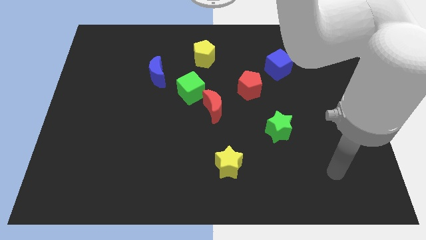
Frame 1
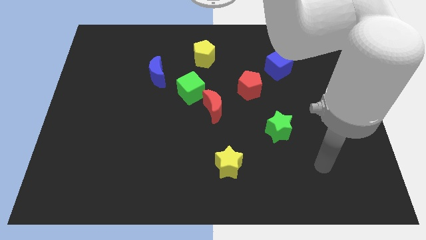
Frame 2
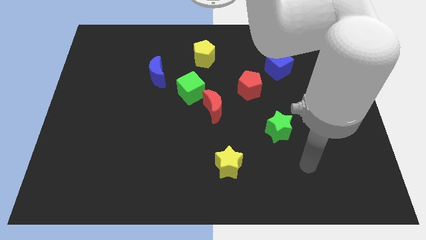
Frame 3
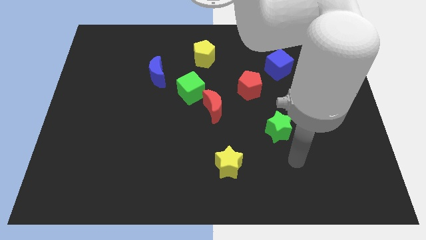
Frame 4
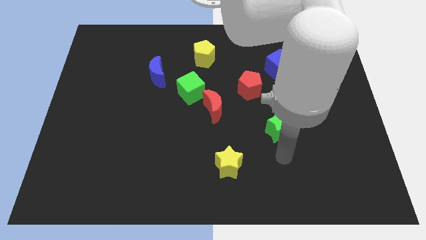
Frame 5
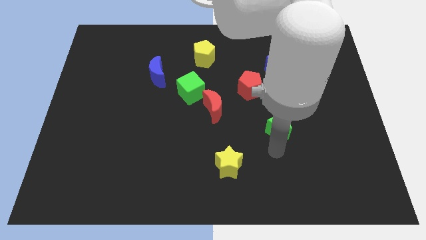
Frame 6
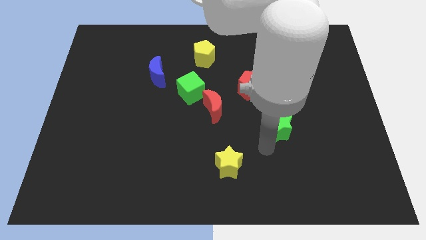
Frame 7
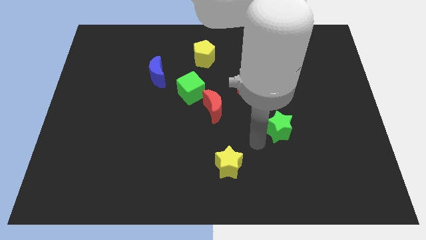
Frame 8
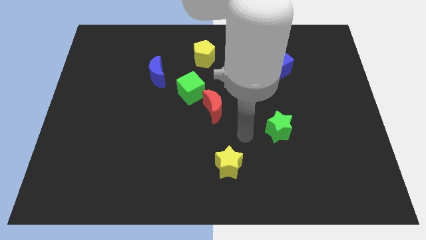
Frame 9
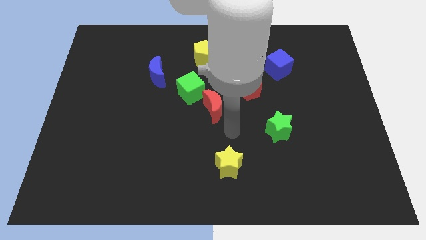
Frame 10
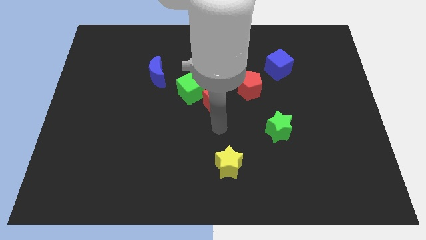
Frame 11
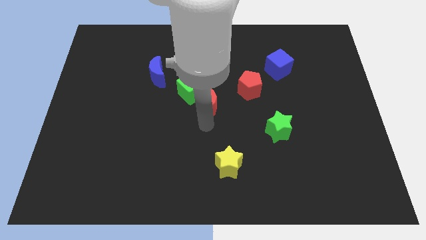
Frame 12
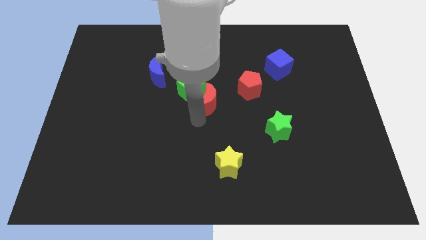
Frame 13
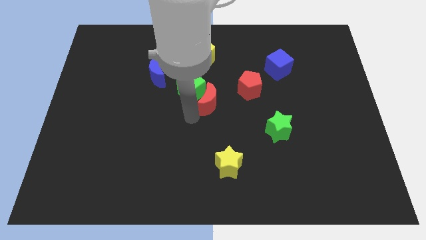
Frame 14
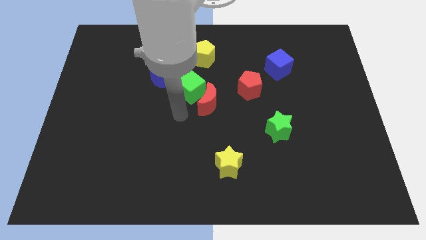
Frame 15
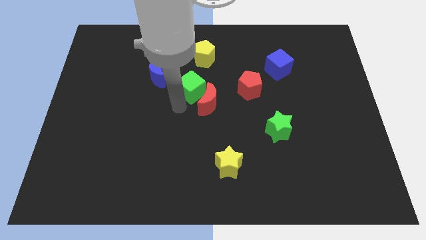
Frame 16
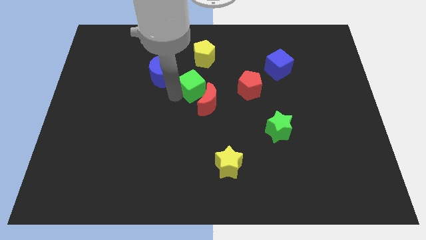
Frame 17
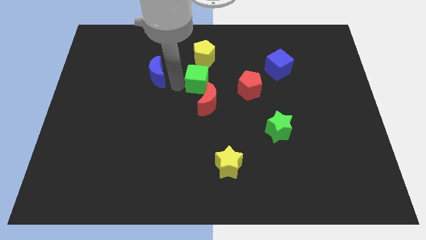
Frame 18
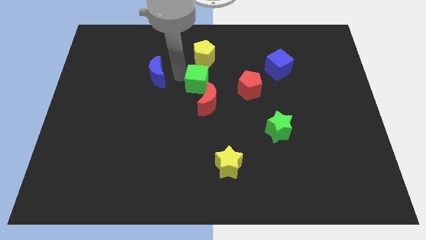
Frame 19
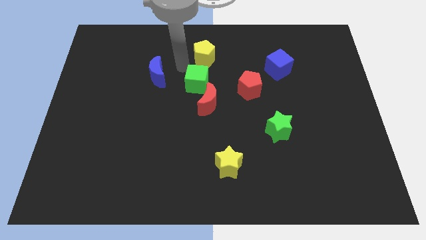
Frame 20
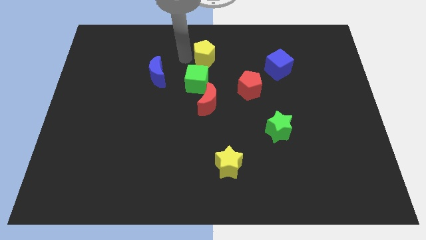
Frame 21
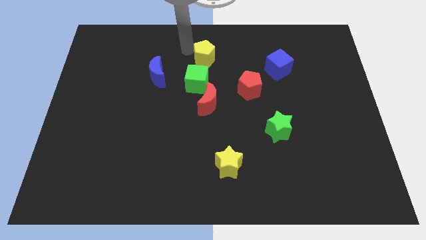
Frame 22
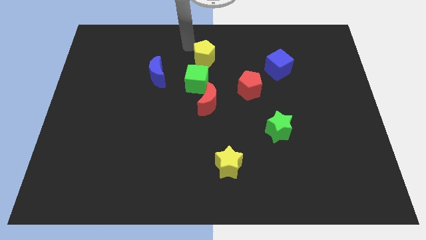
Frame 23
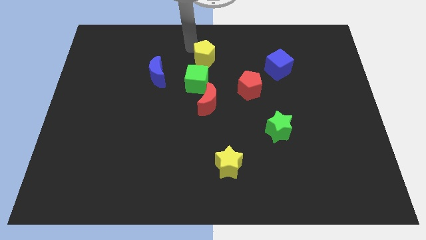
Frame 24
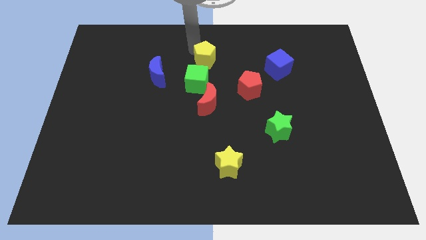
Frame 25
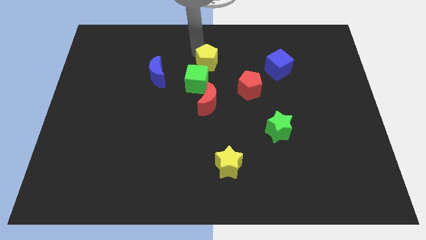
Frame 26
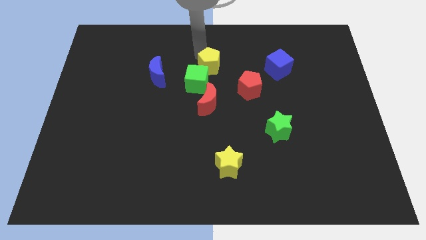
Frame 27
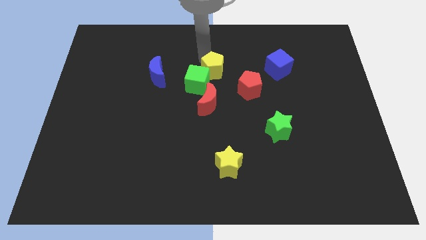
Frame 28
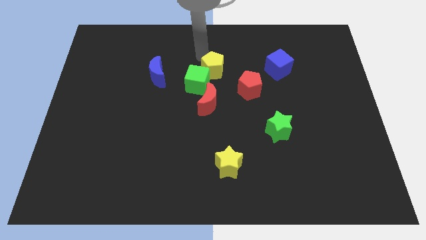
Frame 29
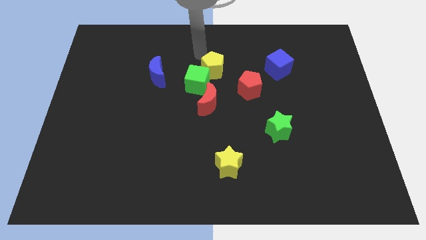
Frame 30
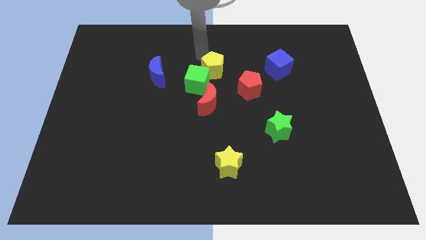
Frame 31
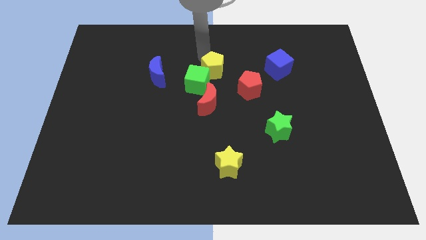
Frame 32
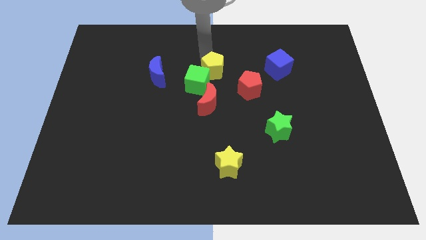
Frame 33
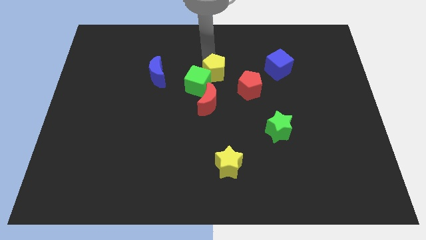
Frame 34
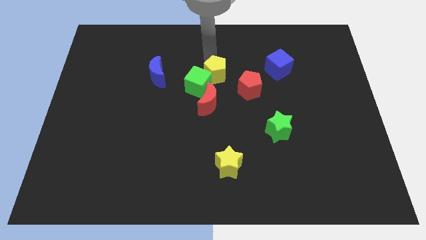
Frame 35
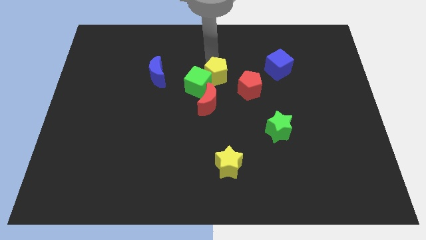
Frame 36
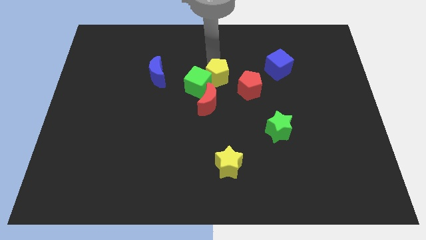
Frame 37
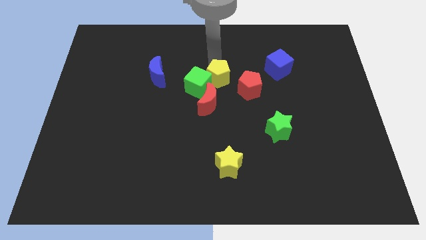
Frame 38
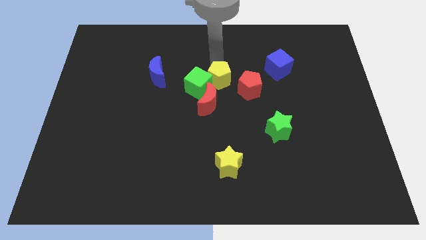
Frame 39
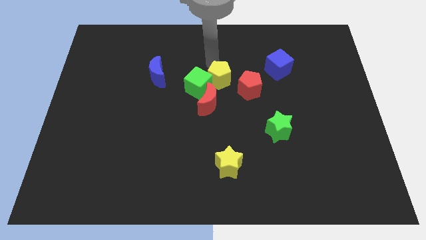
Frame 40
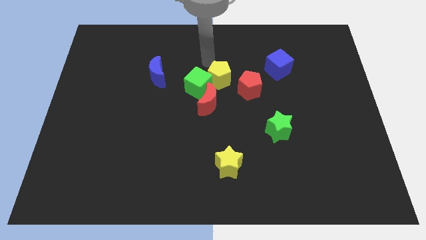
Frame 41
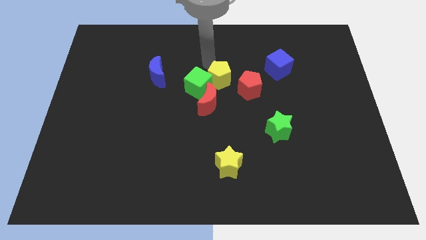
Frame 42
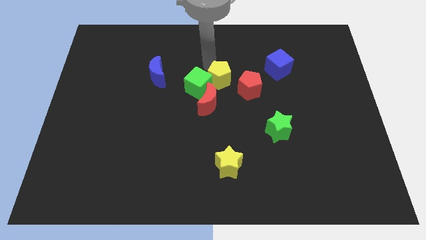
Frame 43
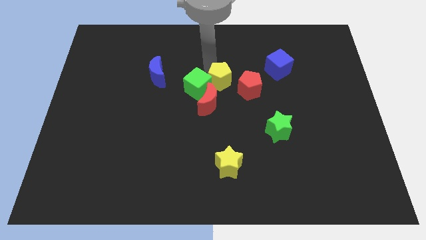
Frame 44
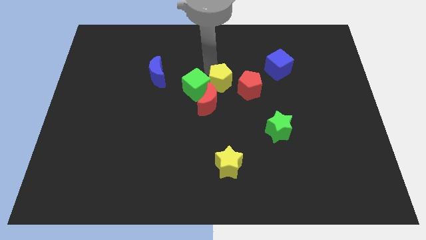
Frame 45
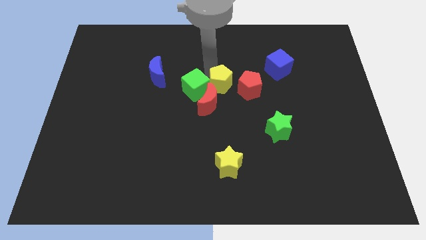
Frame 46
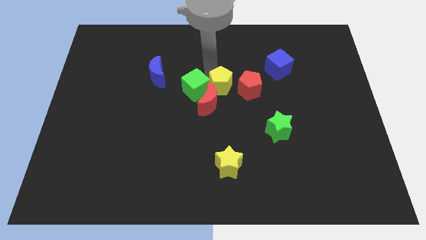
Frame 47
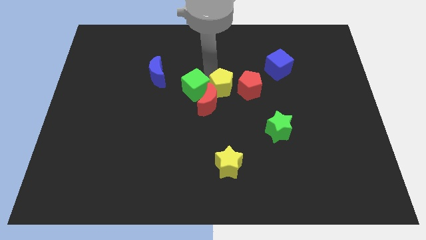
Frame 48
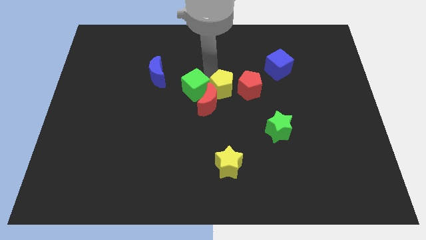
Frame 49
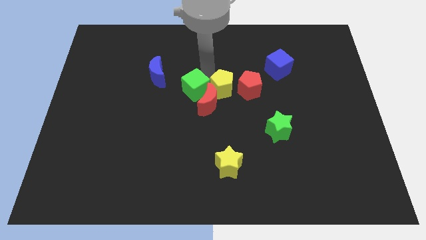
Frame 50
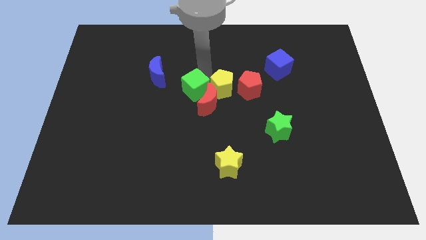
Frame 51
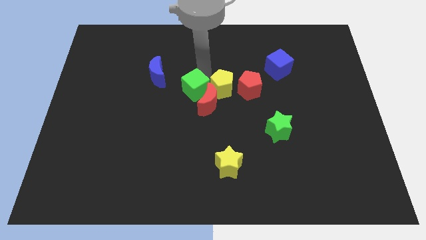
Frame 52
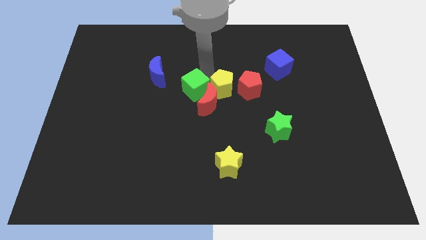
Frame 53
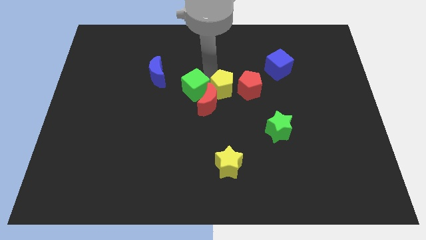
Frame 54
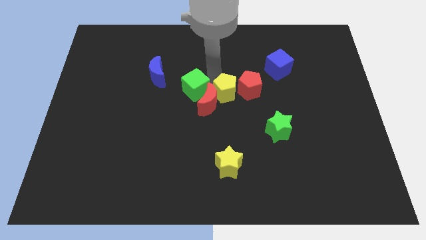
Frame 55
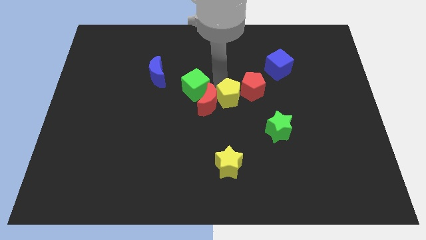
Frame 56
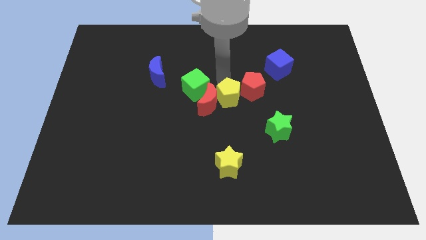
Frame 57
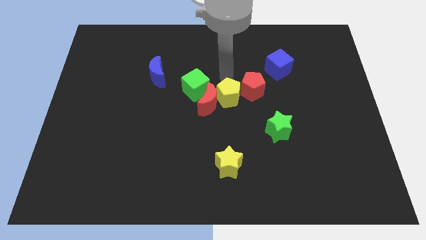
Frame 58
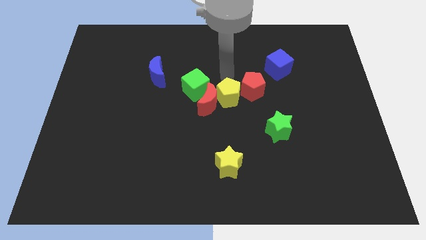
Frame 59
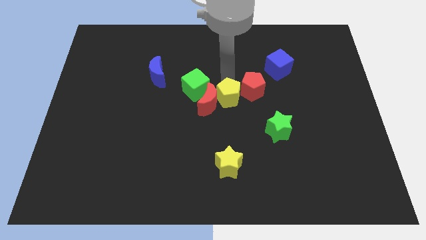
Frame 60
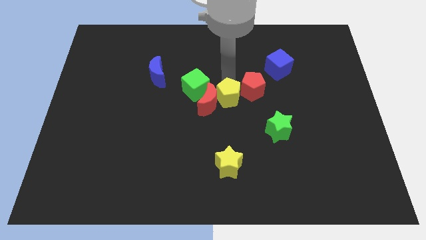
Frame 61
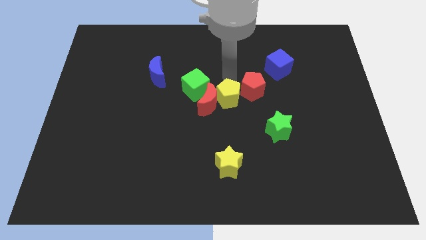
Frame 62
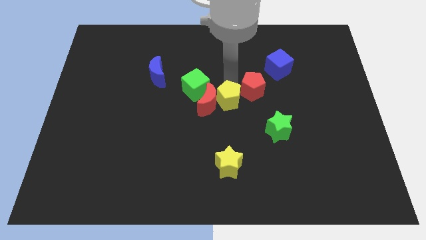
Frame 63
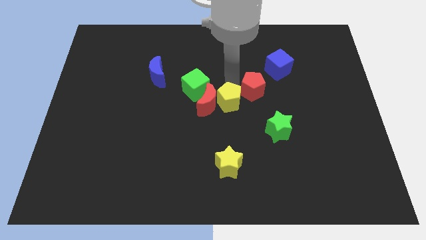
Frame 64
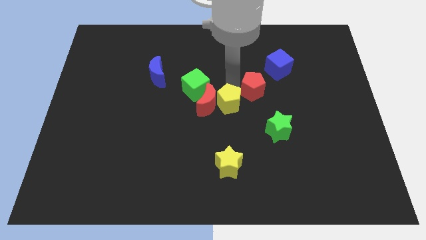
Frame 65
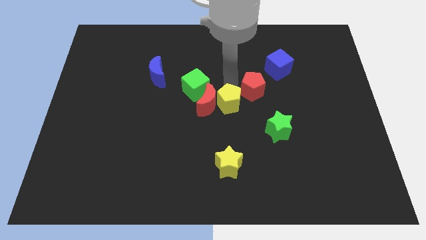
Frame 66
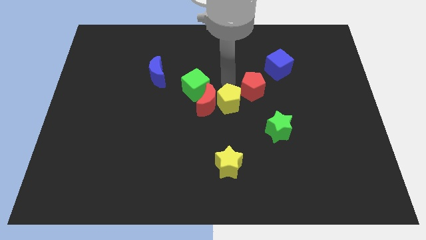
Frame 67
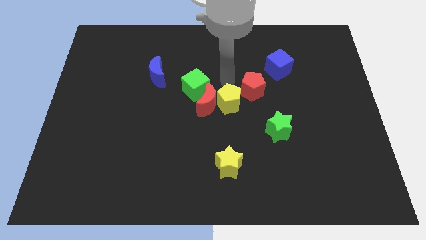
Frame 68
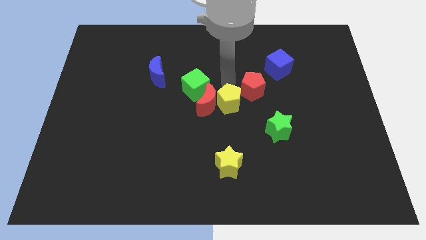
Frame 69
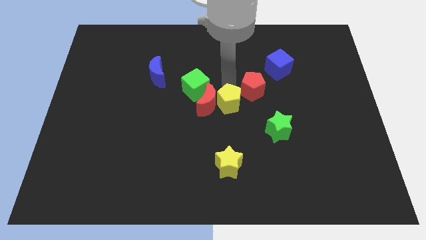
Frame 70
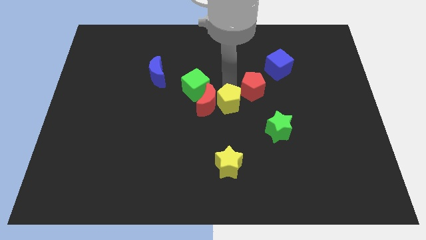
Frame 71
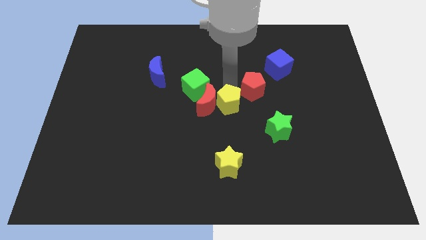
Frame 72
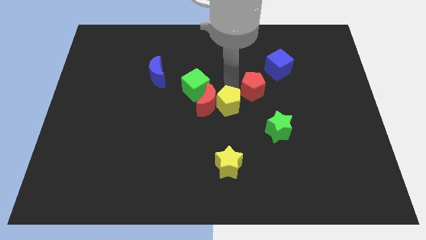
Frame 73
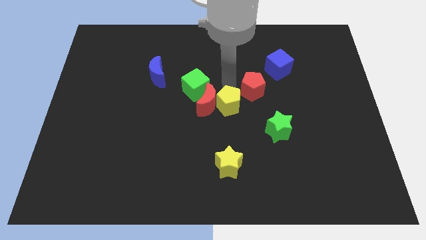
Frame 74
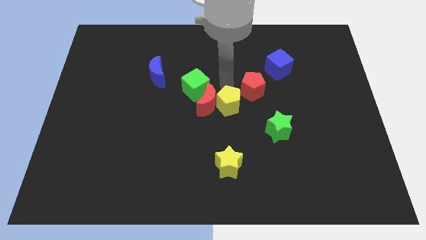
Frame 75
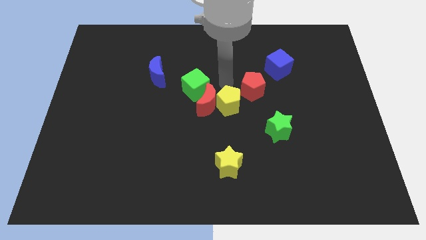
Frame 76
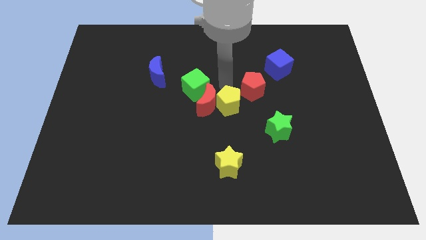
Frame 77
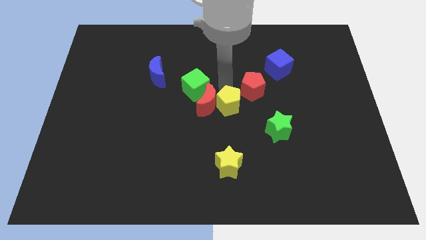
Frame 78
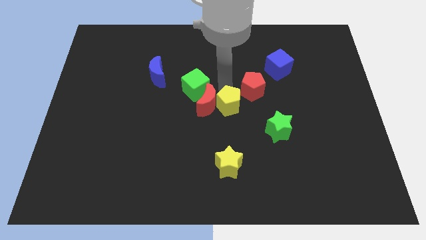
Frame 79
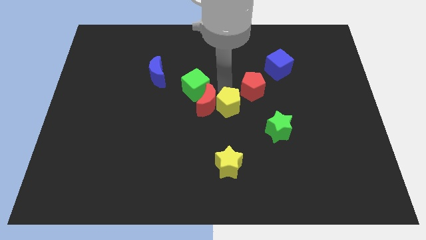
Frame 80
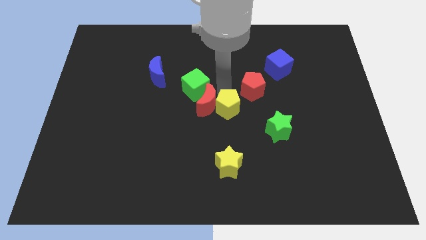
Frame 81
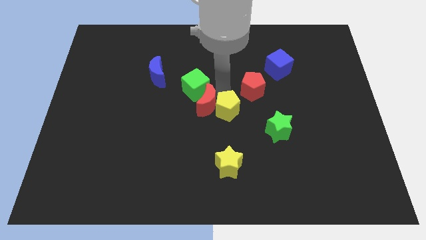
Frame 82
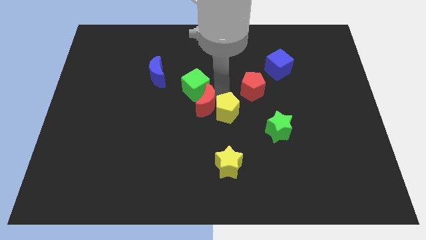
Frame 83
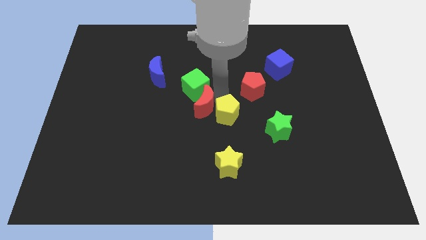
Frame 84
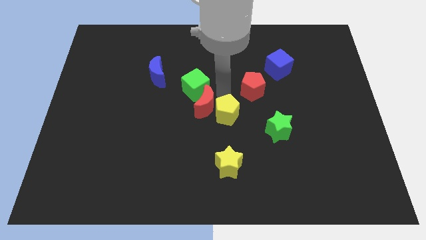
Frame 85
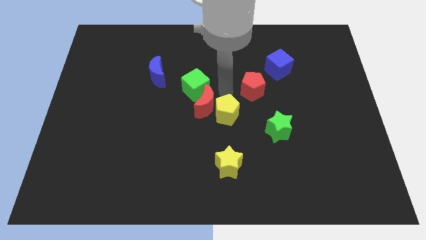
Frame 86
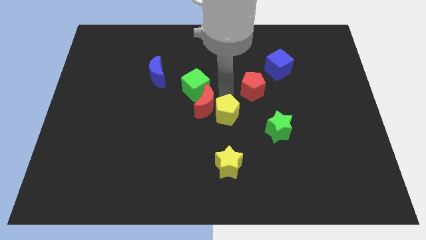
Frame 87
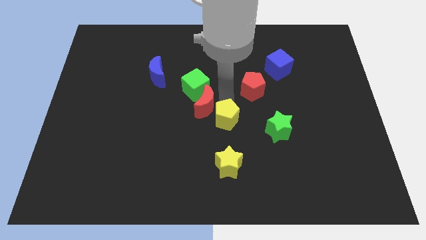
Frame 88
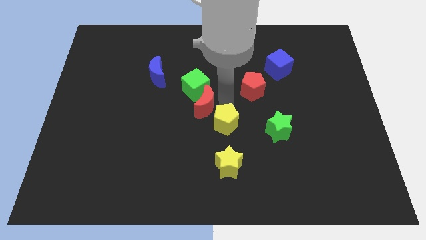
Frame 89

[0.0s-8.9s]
slide the yellow pentagon down
